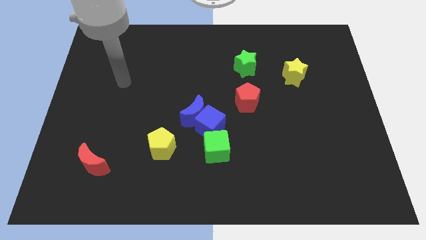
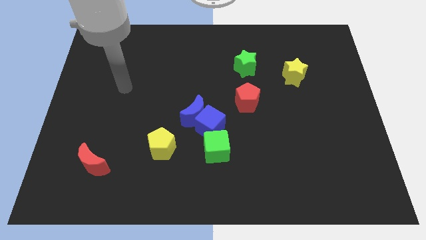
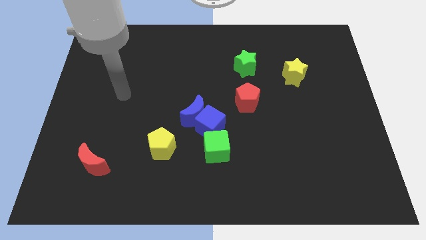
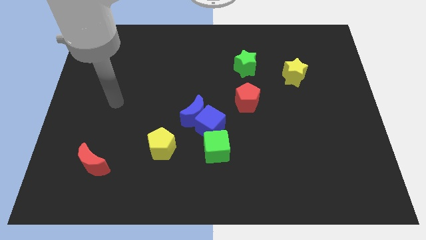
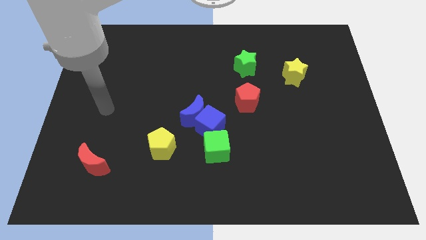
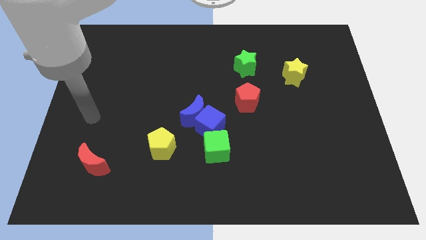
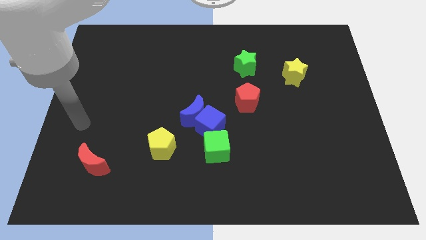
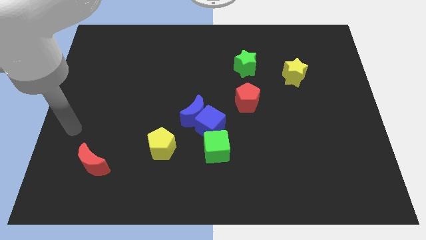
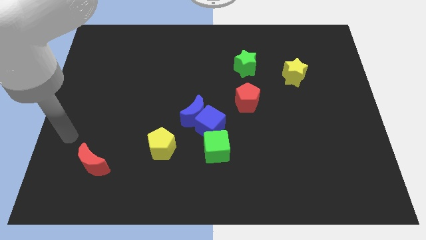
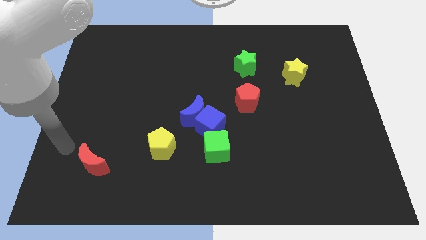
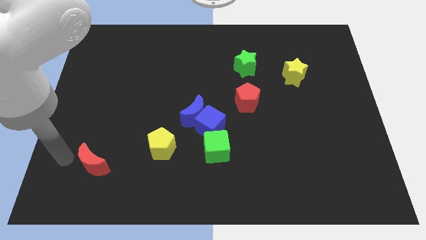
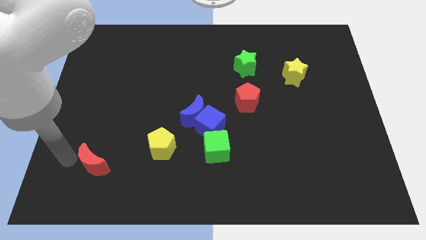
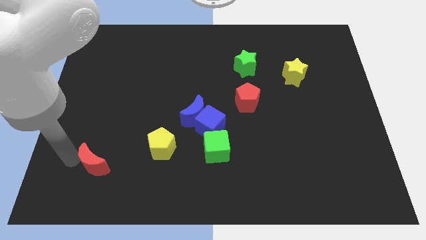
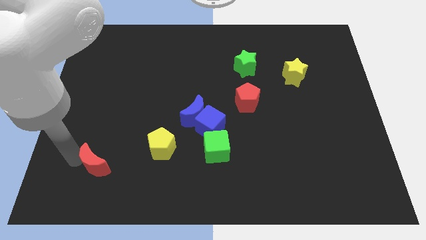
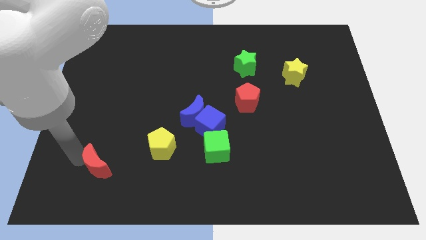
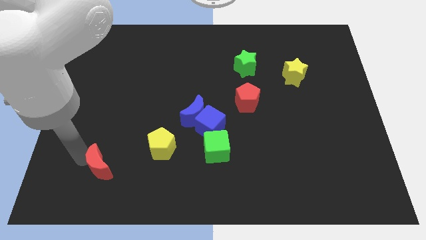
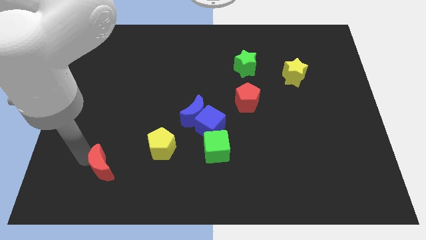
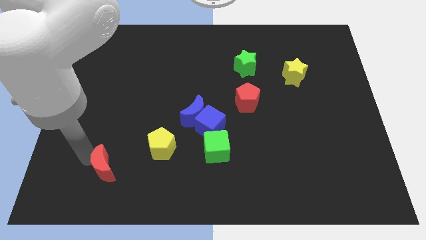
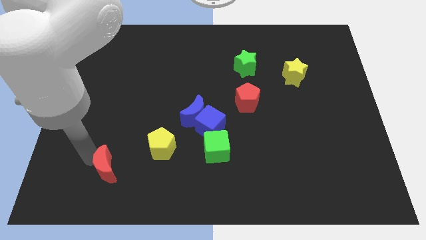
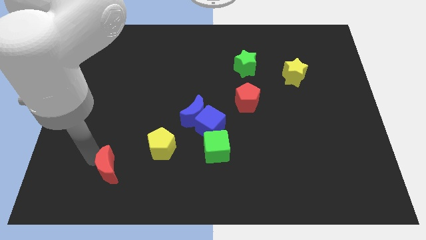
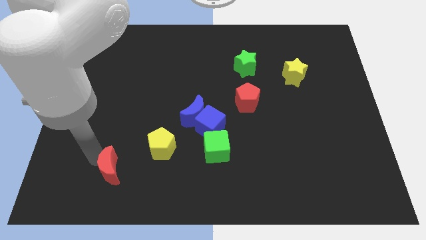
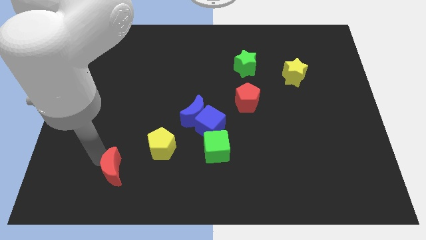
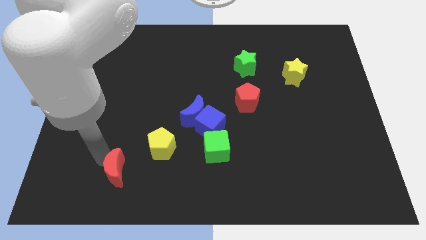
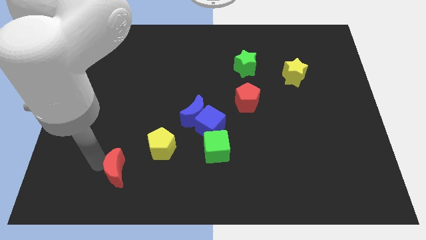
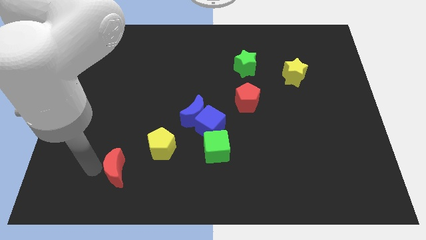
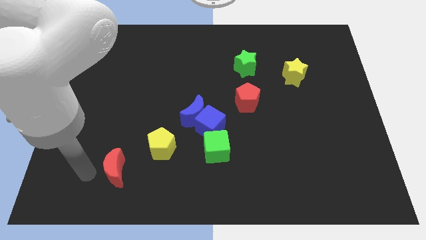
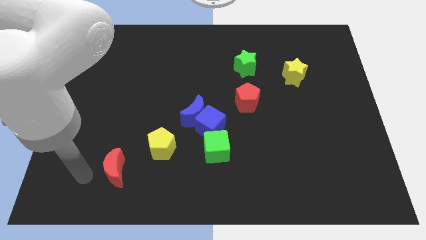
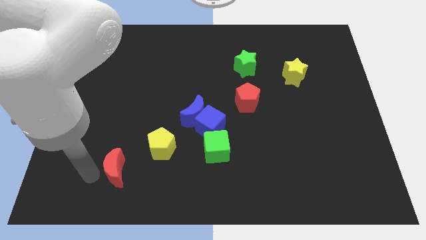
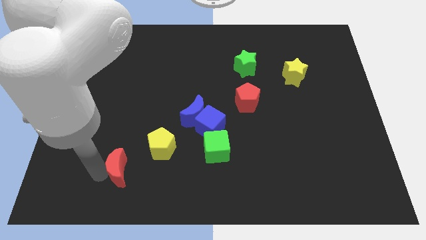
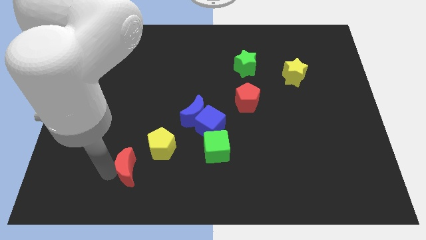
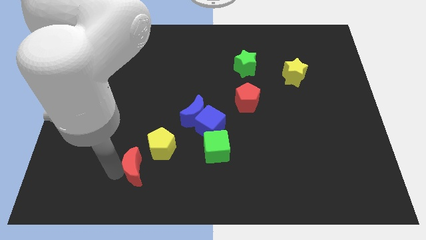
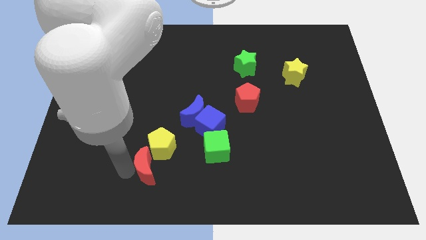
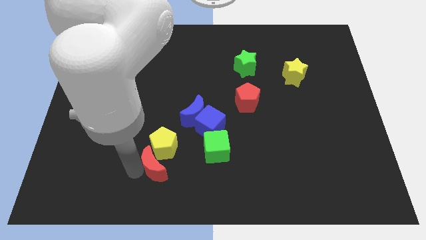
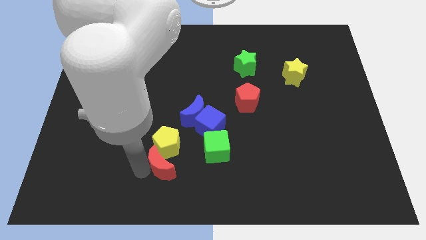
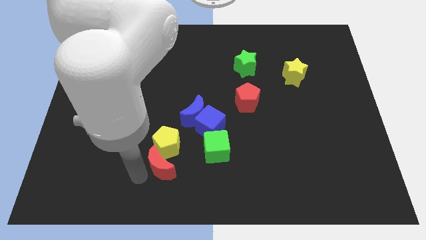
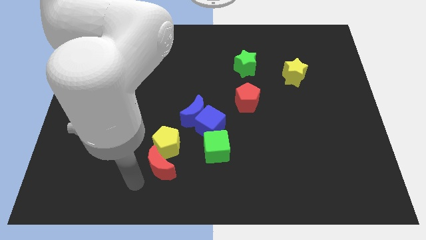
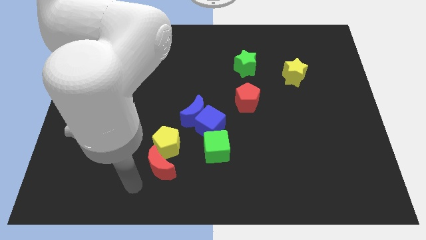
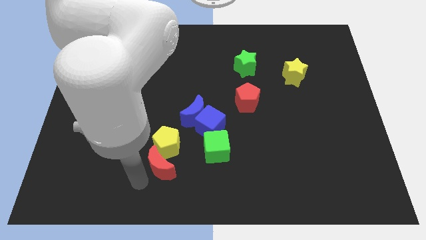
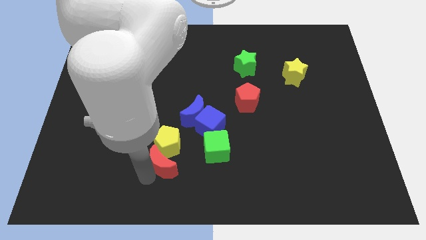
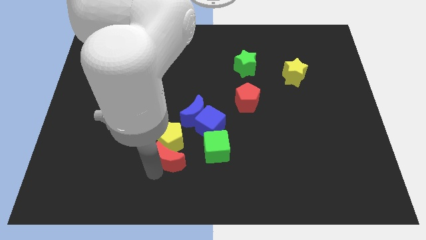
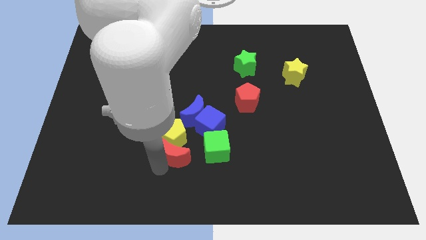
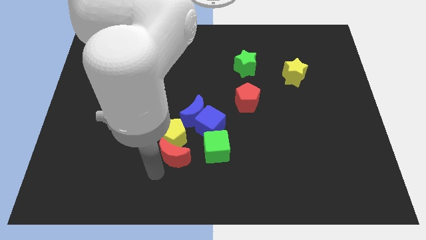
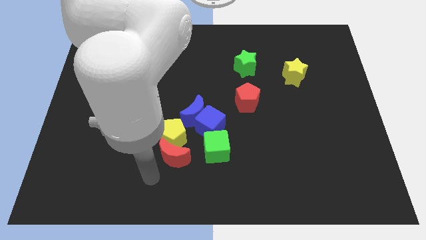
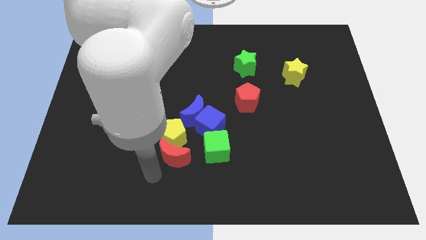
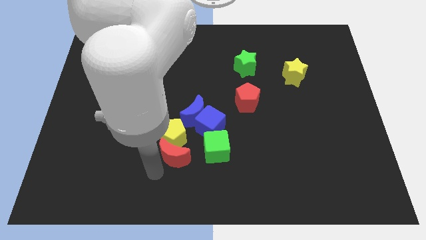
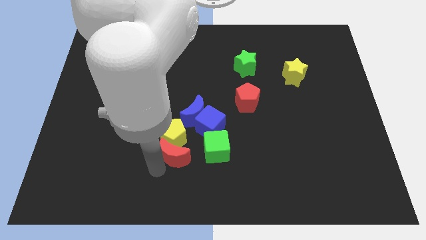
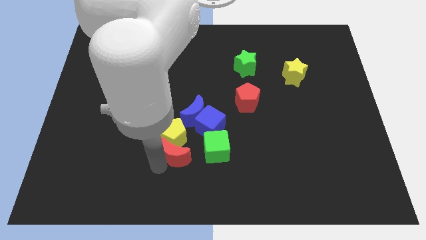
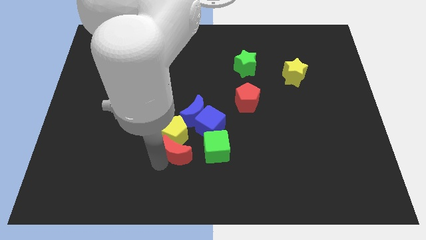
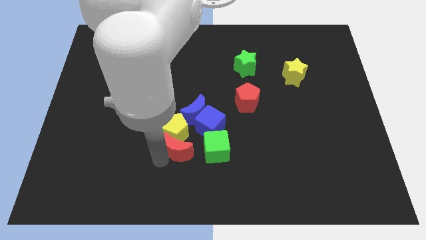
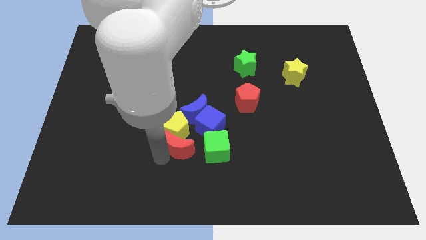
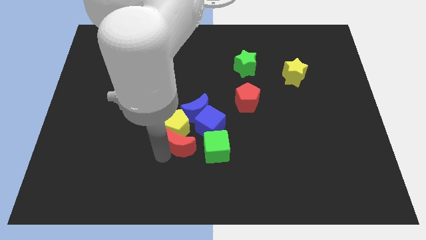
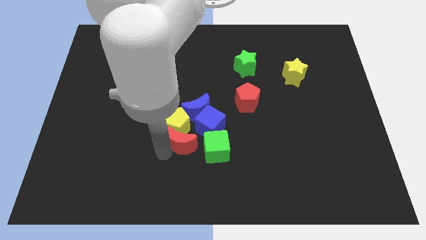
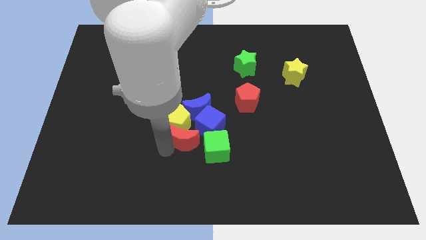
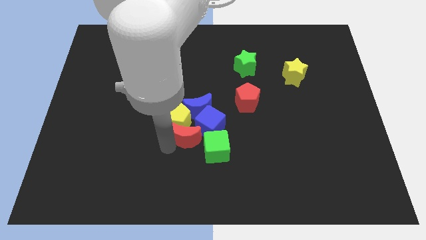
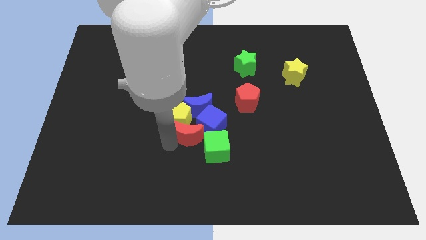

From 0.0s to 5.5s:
put the red moon to the blue cube

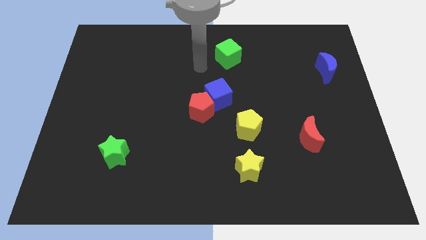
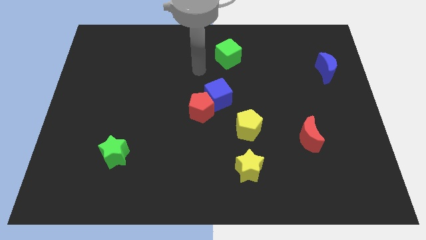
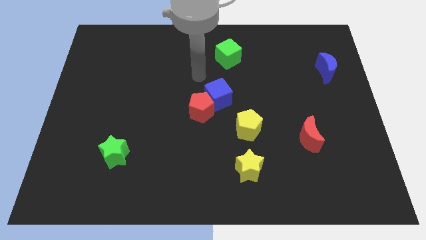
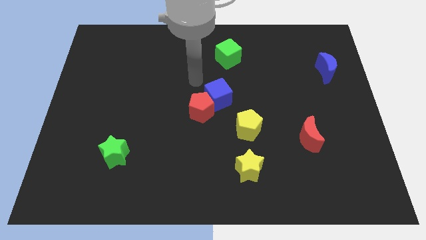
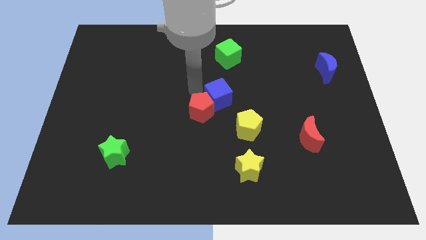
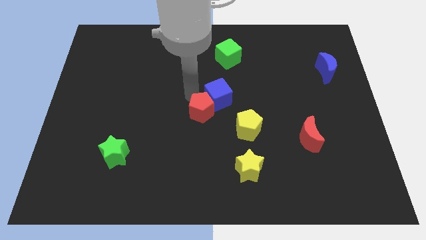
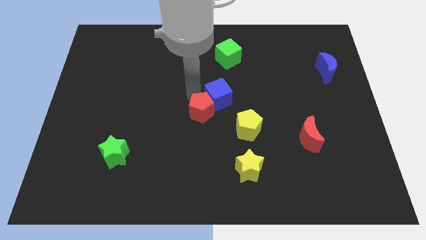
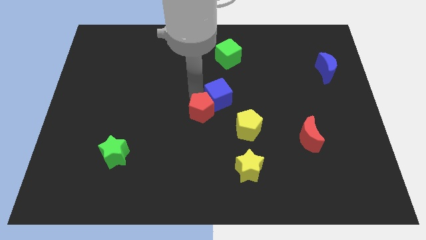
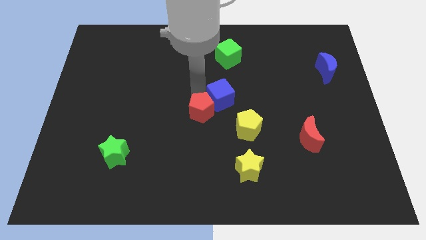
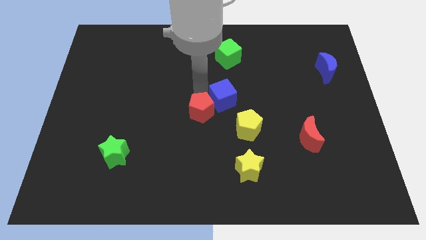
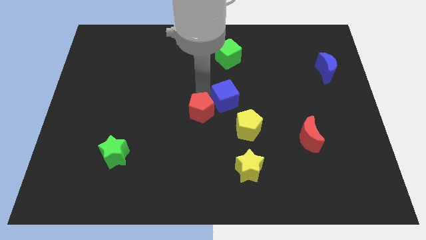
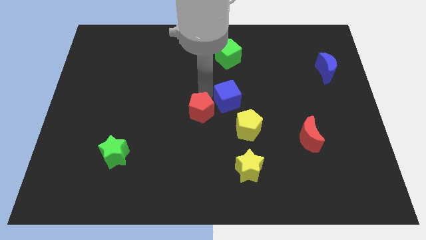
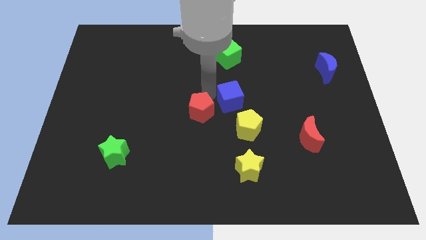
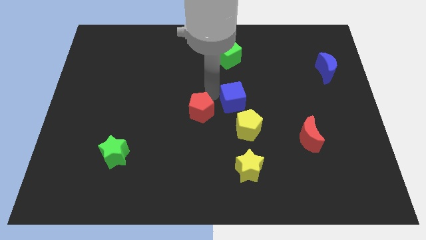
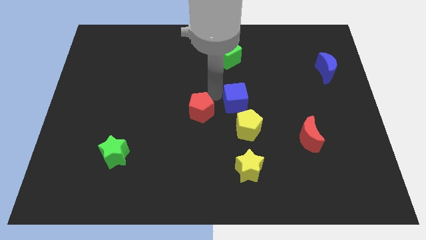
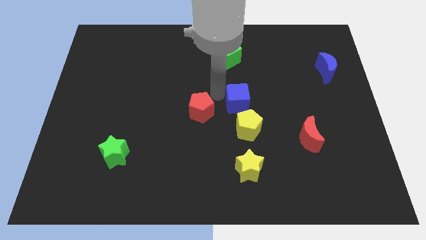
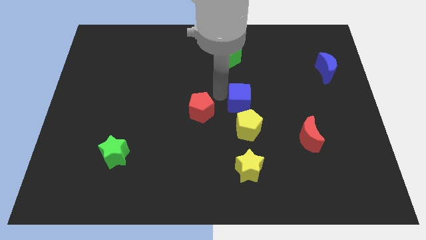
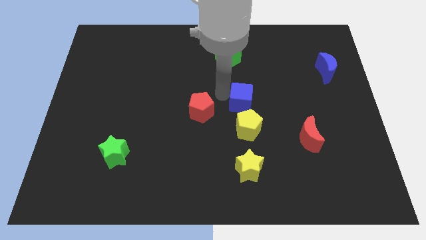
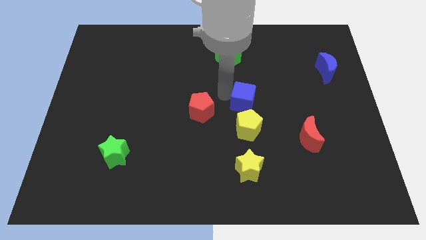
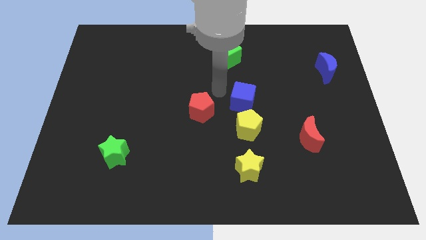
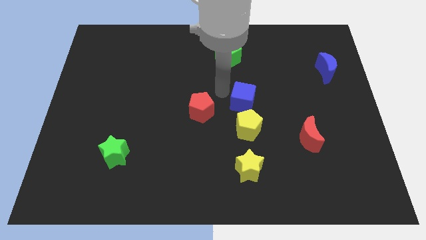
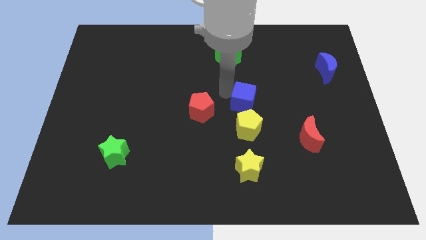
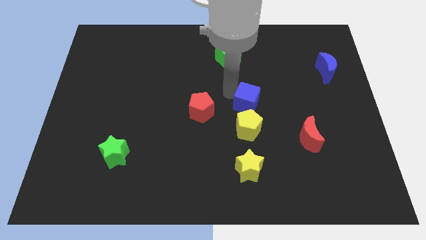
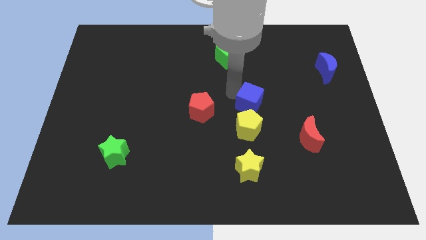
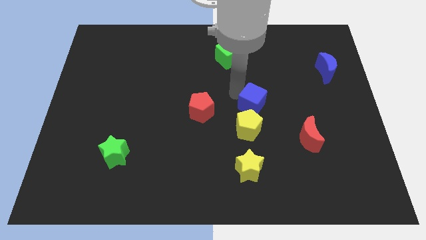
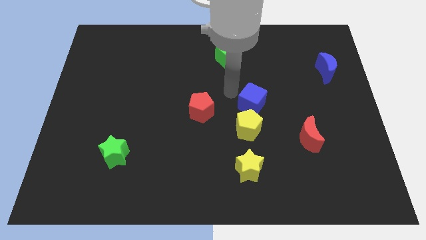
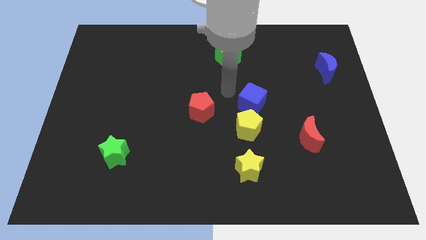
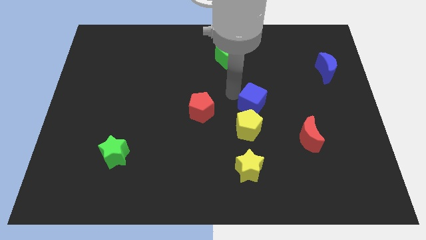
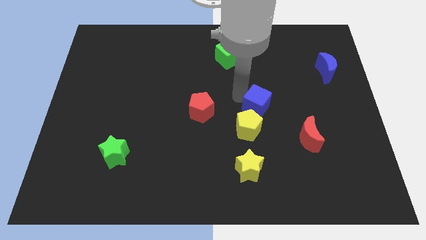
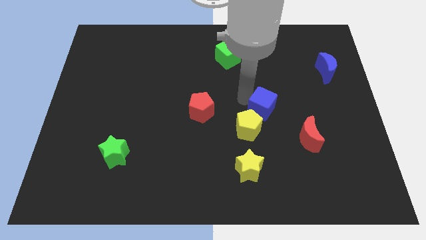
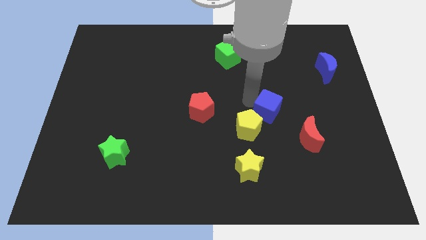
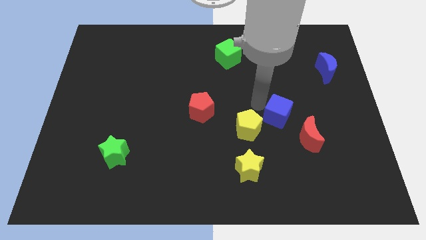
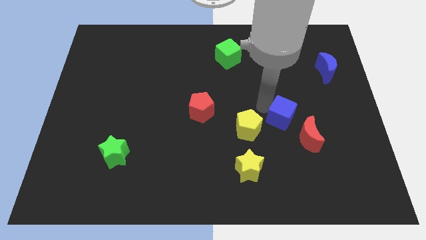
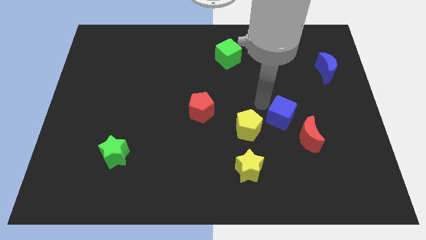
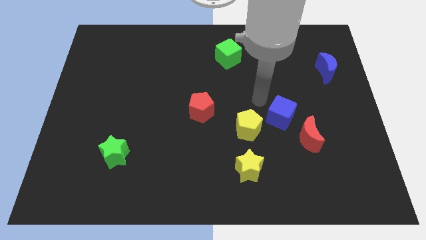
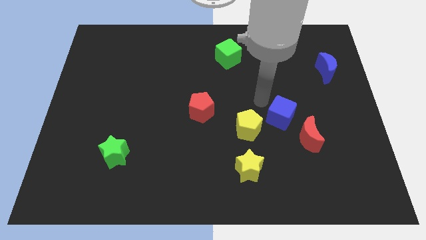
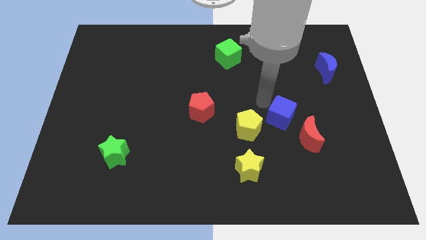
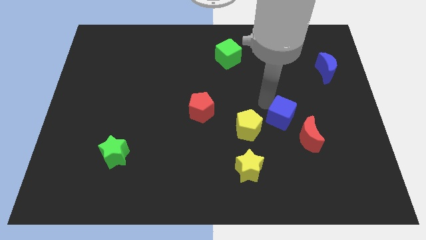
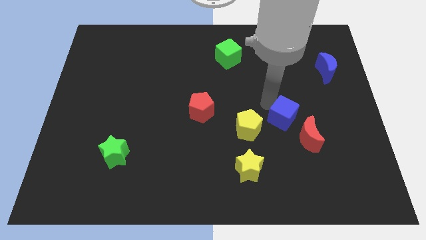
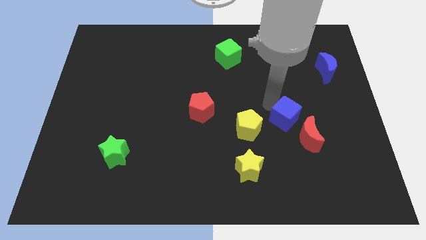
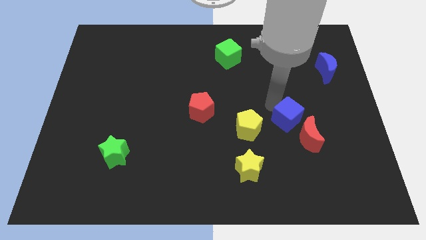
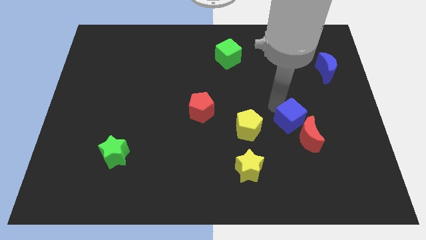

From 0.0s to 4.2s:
put the blue cube towards the red moon
